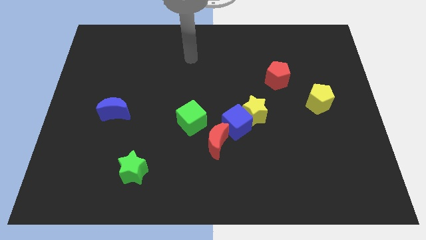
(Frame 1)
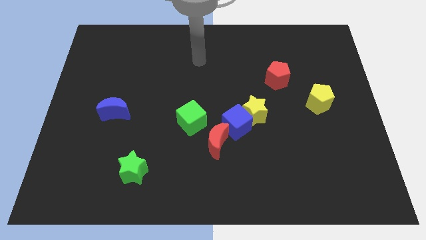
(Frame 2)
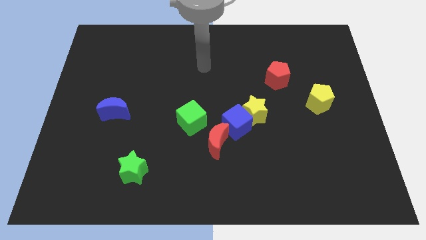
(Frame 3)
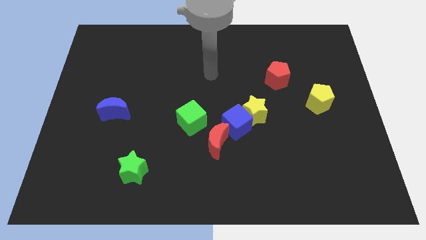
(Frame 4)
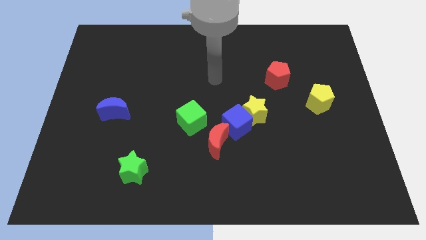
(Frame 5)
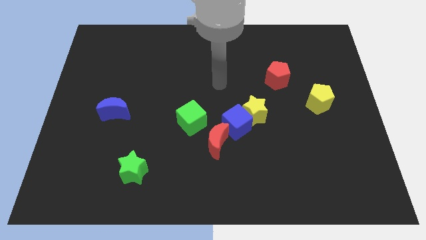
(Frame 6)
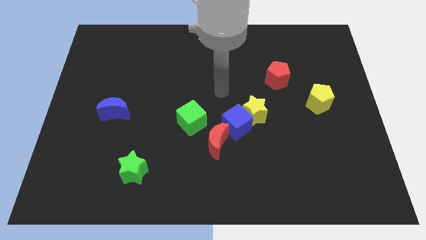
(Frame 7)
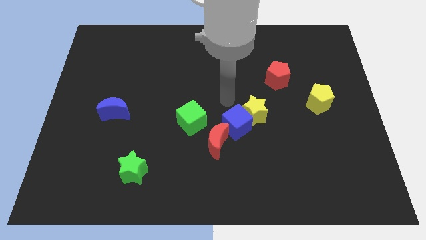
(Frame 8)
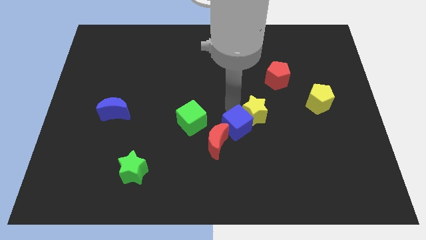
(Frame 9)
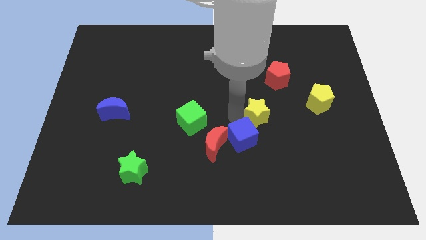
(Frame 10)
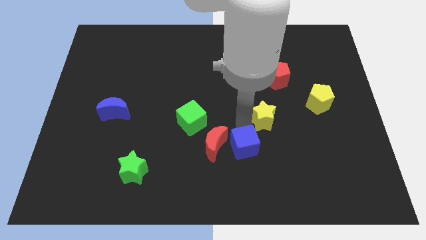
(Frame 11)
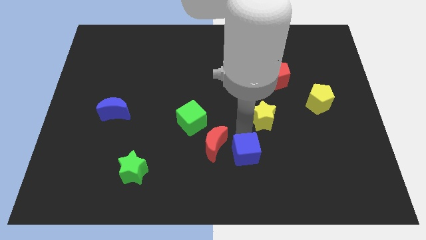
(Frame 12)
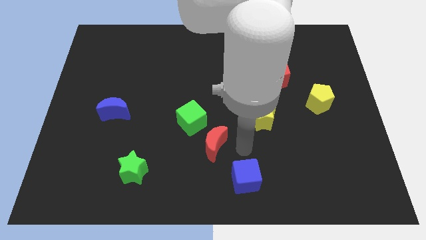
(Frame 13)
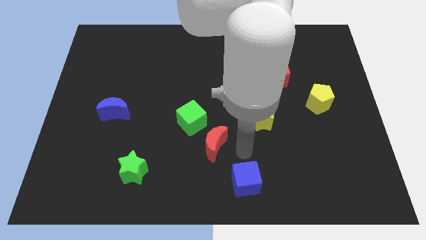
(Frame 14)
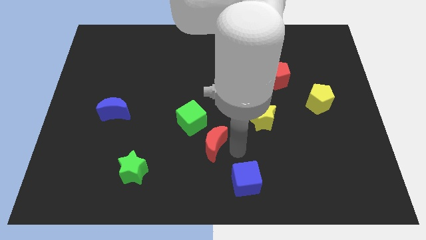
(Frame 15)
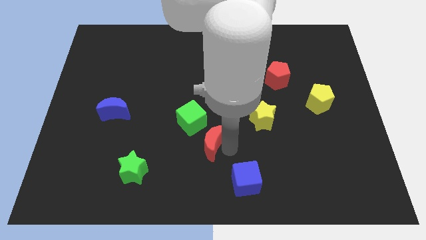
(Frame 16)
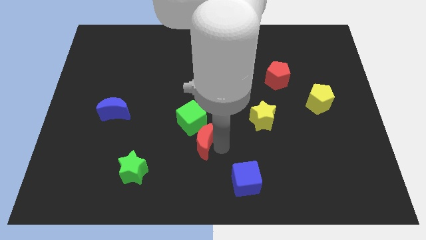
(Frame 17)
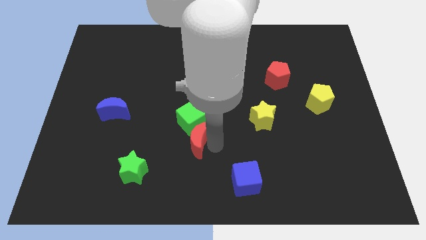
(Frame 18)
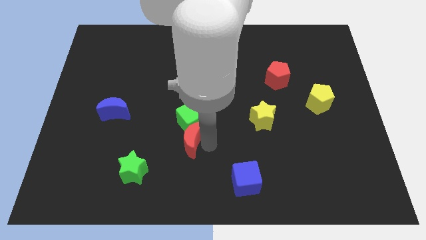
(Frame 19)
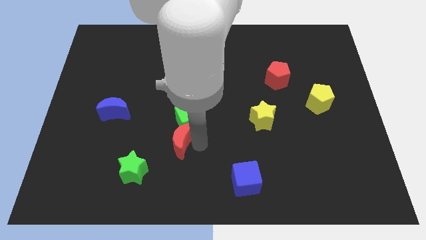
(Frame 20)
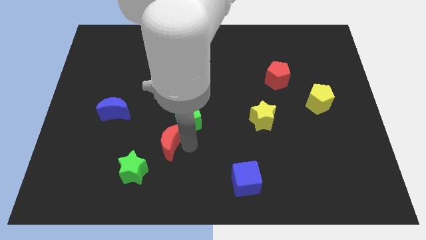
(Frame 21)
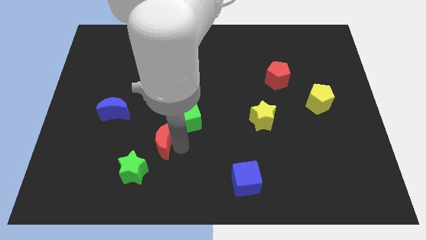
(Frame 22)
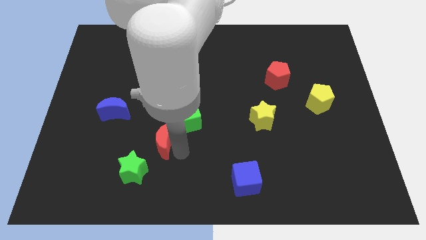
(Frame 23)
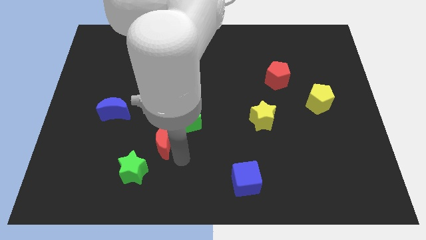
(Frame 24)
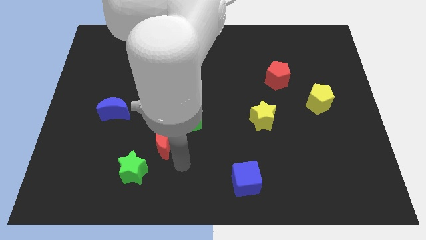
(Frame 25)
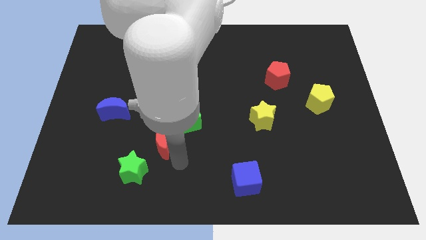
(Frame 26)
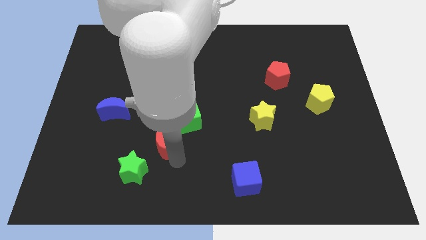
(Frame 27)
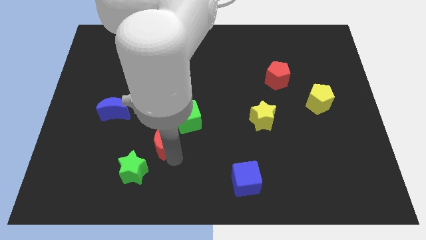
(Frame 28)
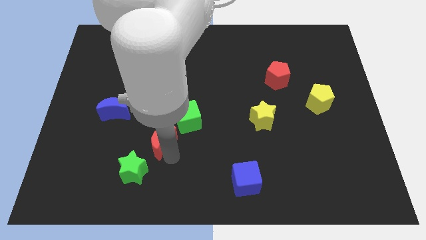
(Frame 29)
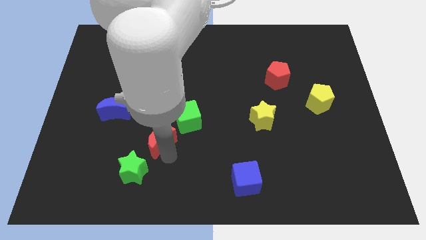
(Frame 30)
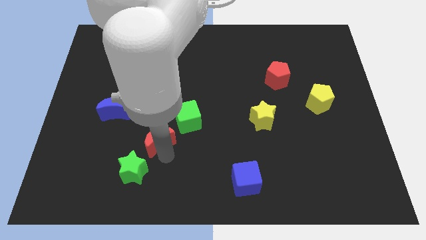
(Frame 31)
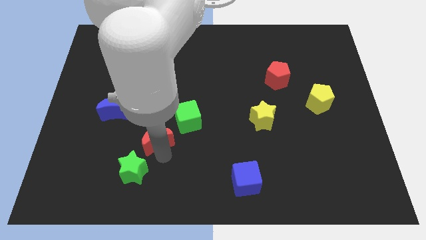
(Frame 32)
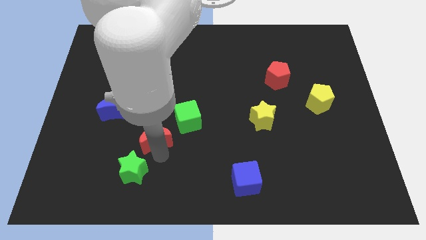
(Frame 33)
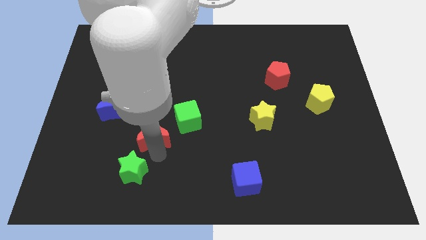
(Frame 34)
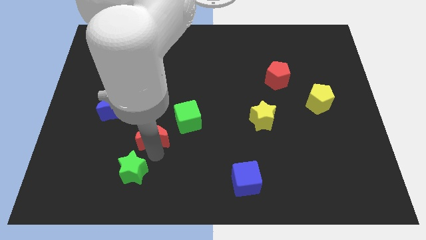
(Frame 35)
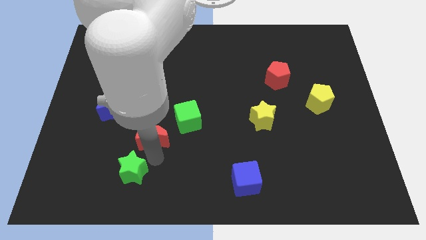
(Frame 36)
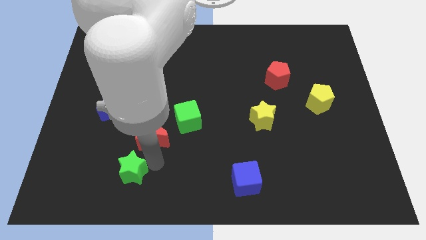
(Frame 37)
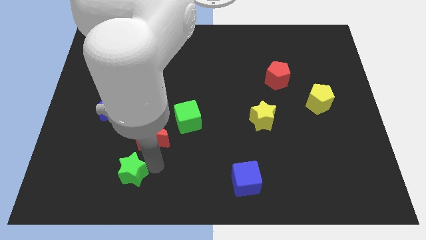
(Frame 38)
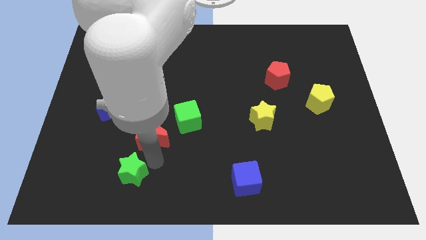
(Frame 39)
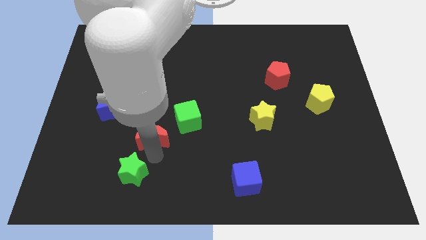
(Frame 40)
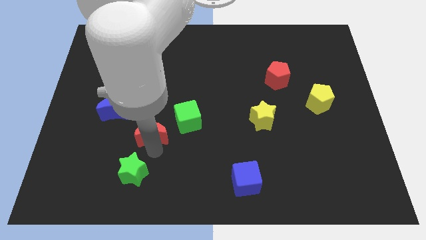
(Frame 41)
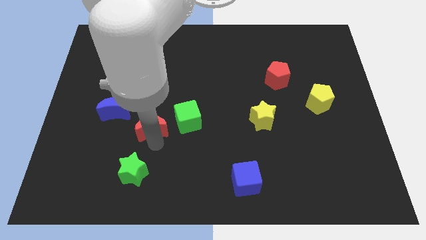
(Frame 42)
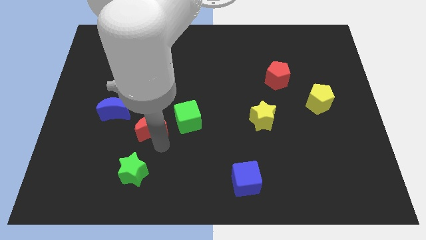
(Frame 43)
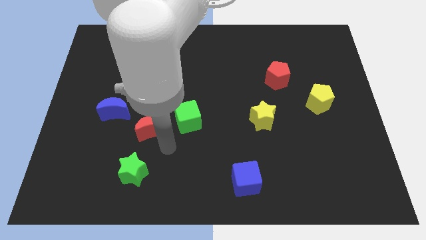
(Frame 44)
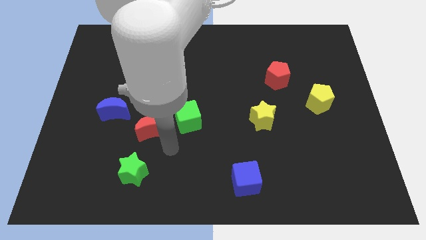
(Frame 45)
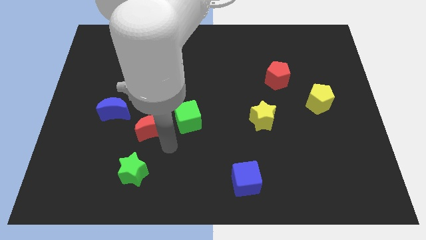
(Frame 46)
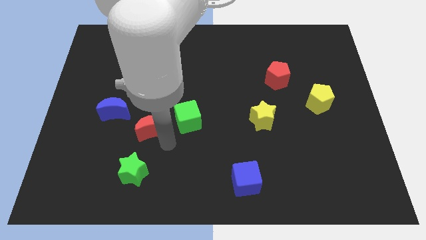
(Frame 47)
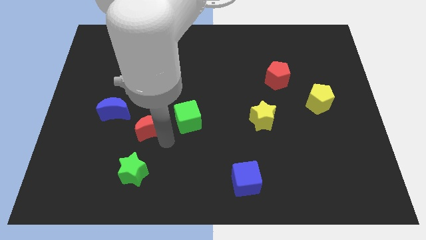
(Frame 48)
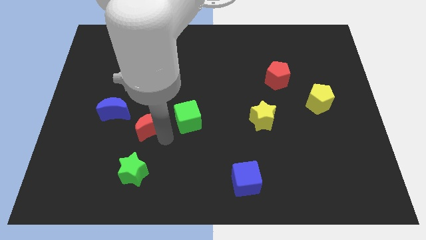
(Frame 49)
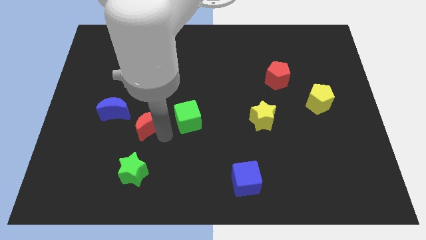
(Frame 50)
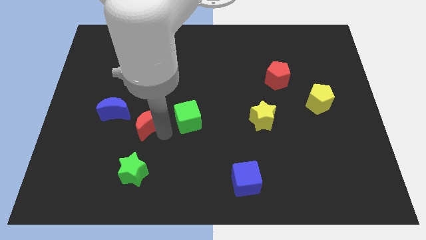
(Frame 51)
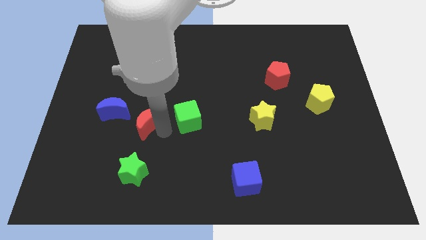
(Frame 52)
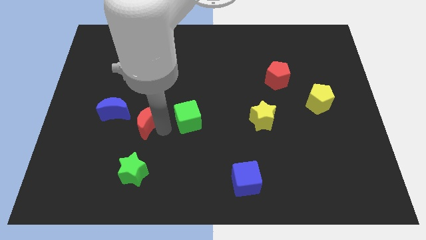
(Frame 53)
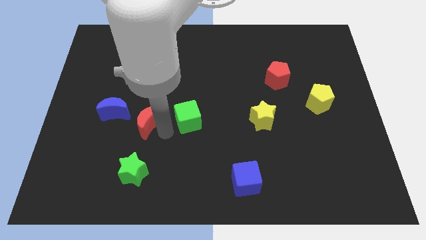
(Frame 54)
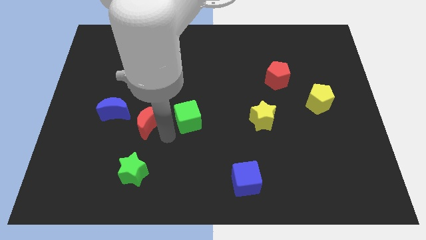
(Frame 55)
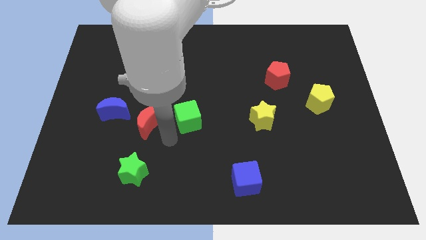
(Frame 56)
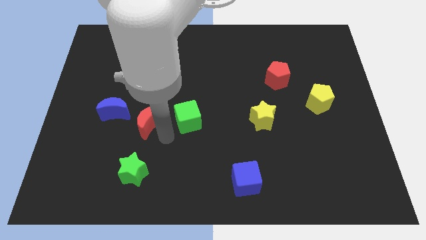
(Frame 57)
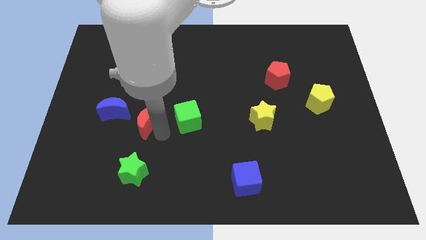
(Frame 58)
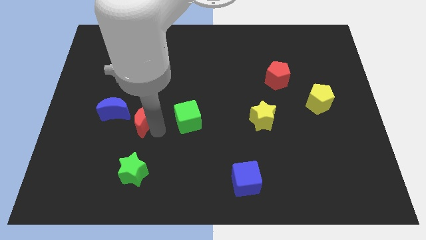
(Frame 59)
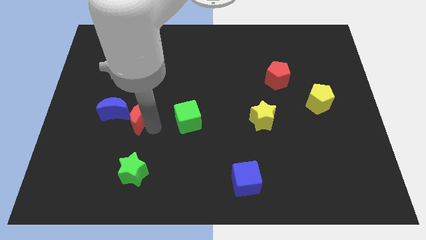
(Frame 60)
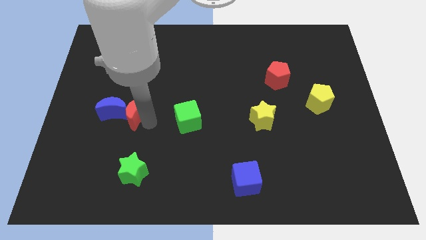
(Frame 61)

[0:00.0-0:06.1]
slide the red moon next to the blue moon
